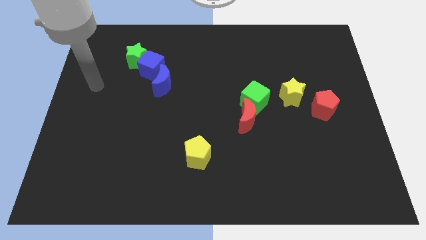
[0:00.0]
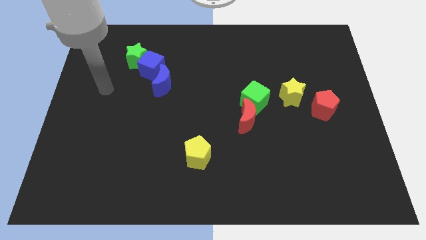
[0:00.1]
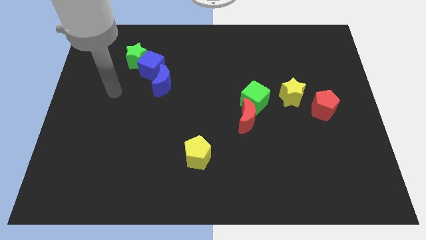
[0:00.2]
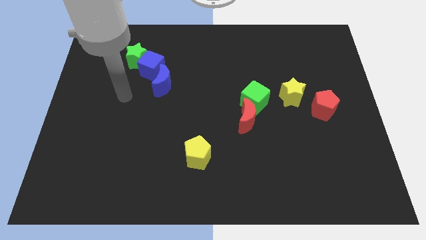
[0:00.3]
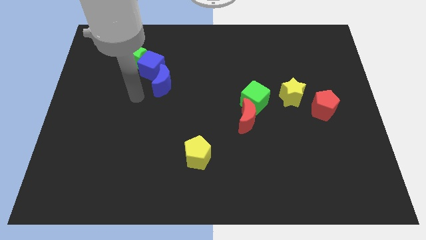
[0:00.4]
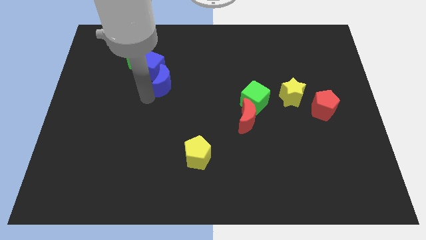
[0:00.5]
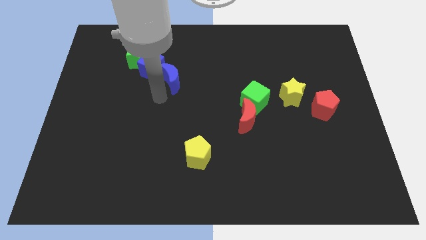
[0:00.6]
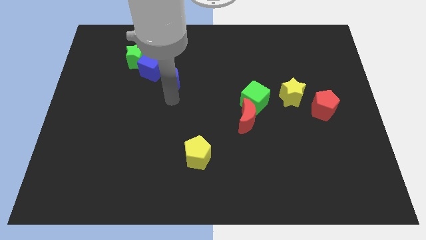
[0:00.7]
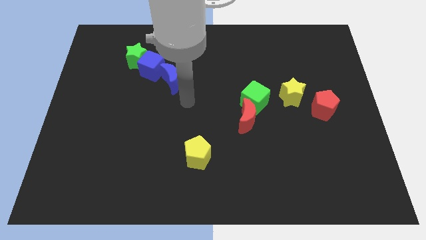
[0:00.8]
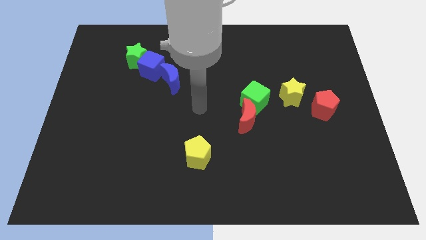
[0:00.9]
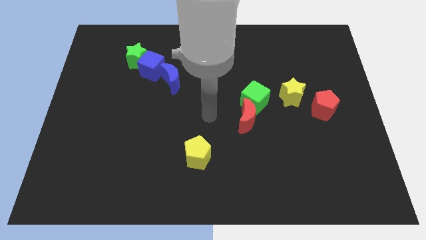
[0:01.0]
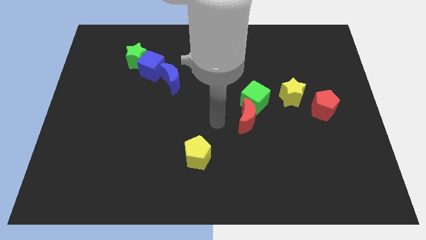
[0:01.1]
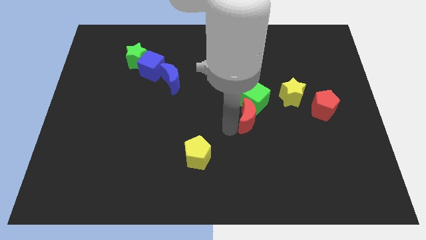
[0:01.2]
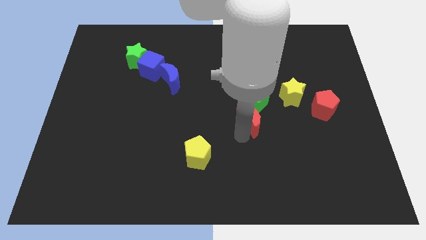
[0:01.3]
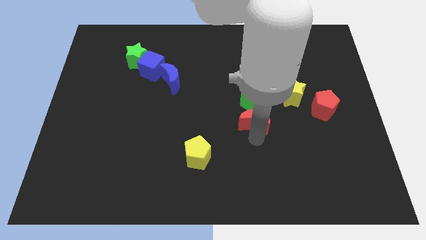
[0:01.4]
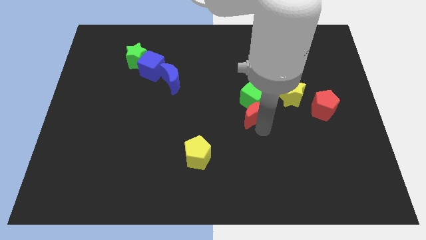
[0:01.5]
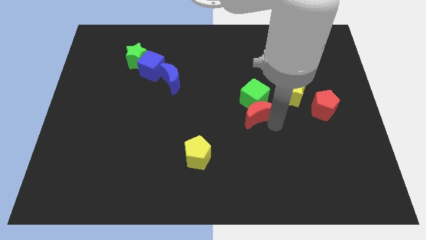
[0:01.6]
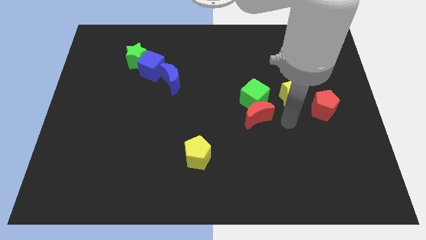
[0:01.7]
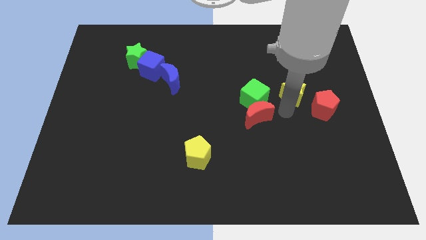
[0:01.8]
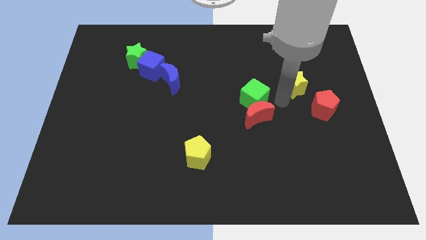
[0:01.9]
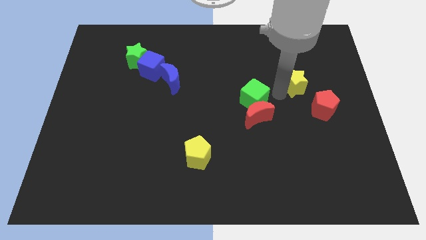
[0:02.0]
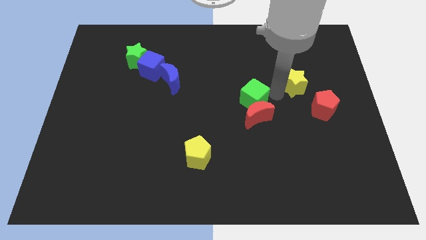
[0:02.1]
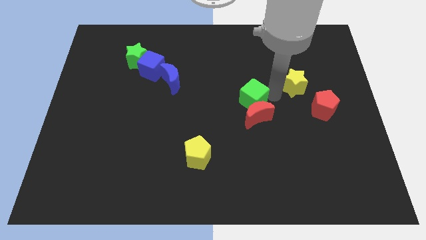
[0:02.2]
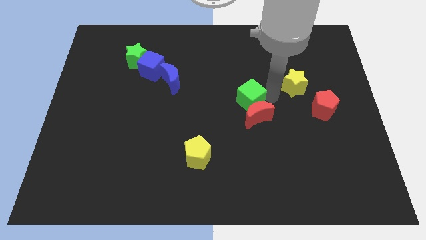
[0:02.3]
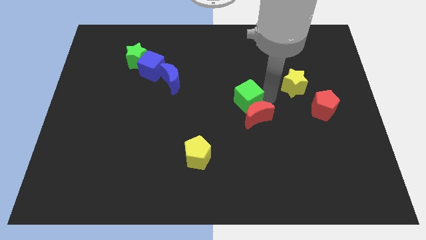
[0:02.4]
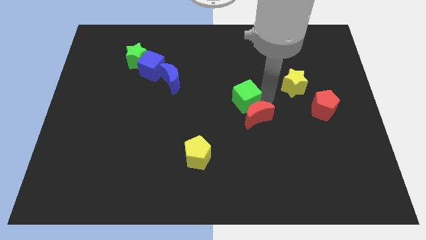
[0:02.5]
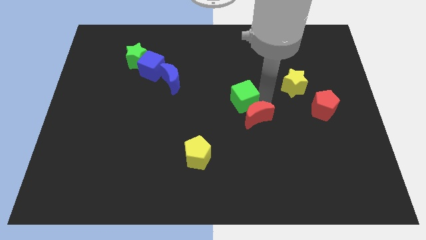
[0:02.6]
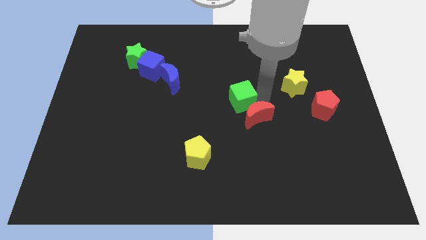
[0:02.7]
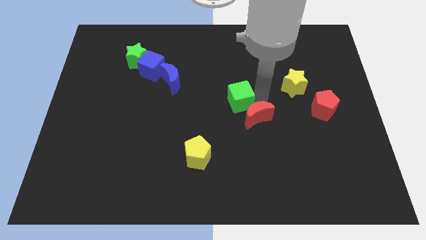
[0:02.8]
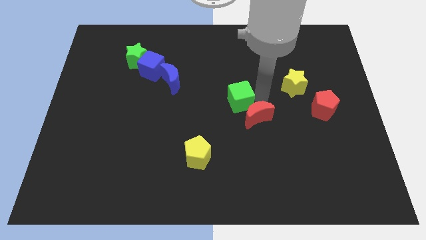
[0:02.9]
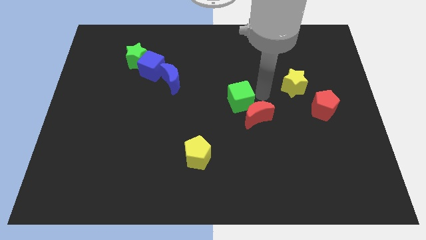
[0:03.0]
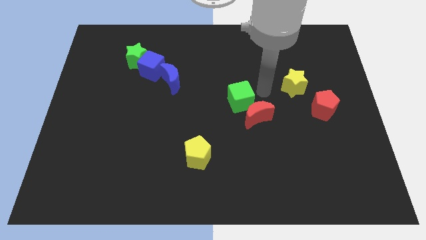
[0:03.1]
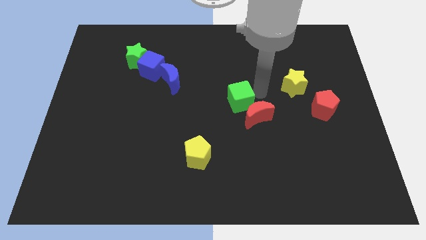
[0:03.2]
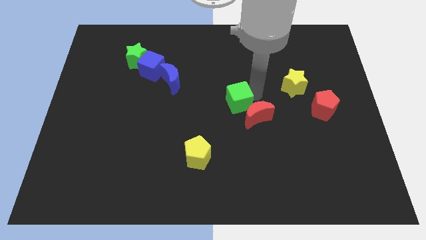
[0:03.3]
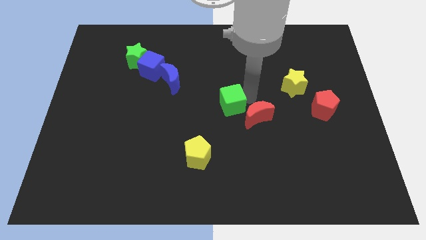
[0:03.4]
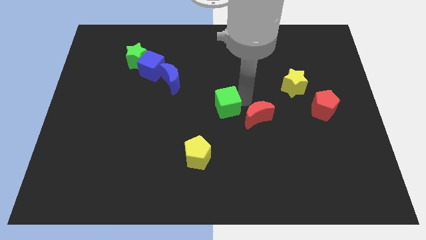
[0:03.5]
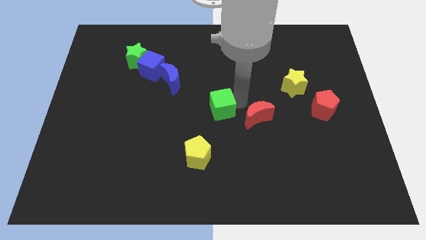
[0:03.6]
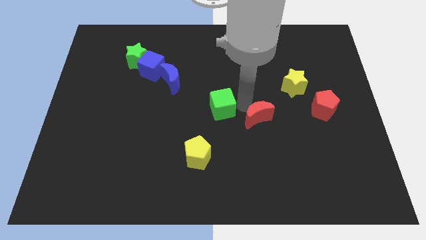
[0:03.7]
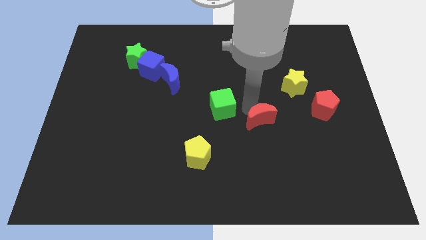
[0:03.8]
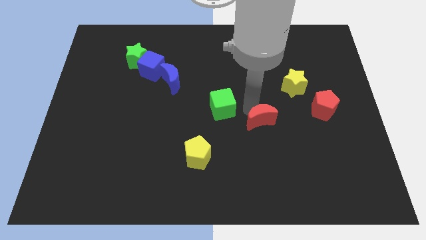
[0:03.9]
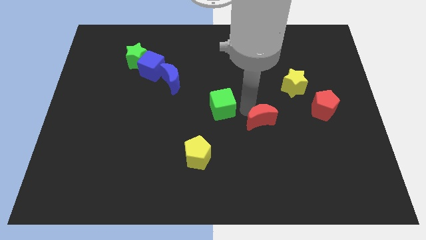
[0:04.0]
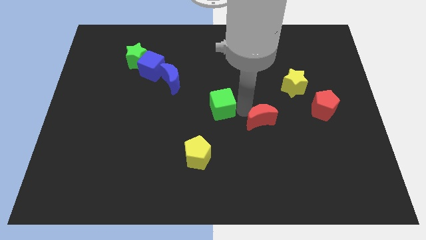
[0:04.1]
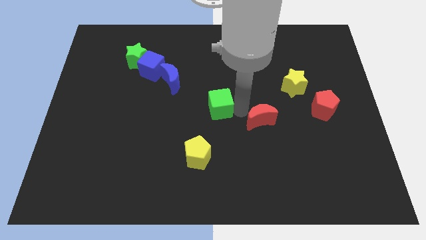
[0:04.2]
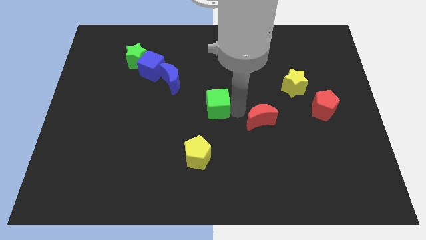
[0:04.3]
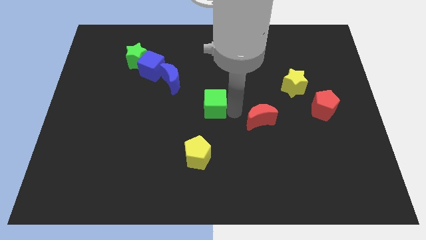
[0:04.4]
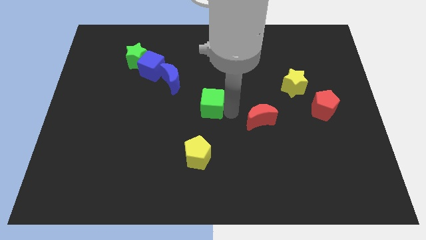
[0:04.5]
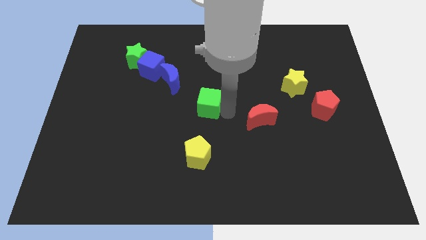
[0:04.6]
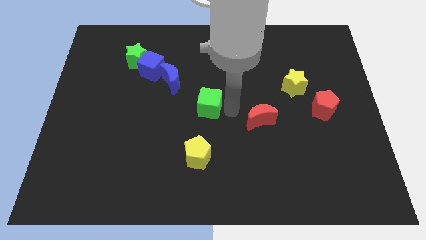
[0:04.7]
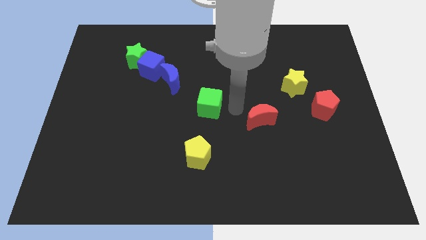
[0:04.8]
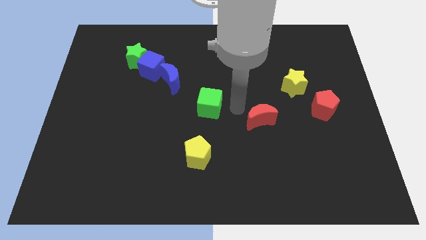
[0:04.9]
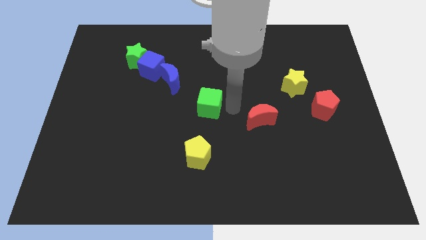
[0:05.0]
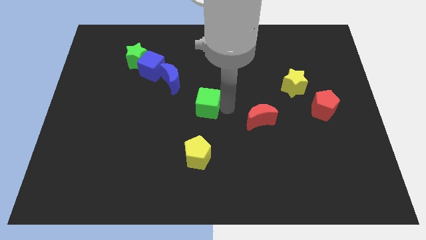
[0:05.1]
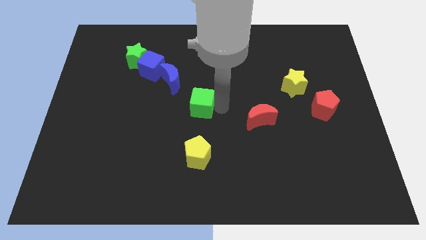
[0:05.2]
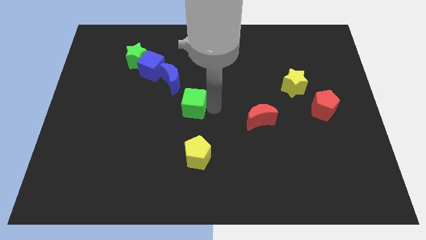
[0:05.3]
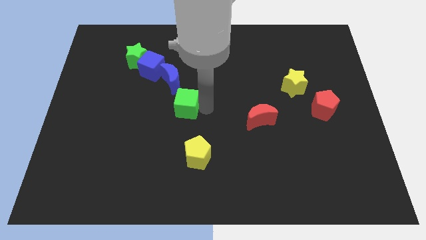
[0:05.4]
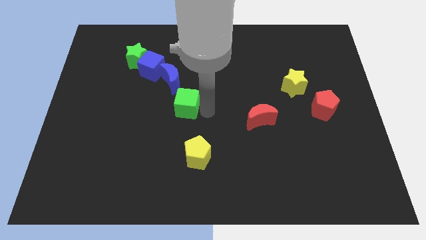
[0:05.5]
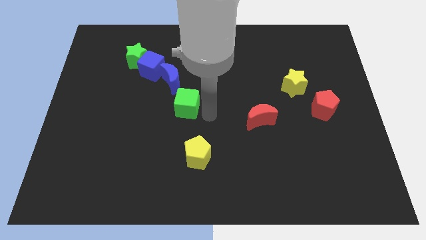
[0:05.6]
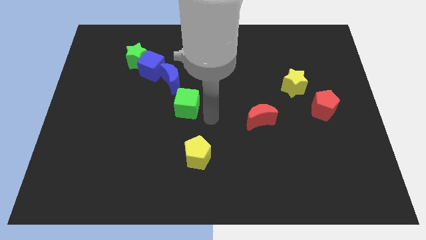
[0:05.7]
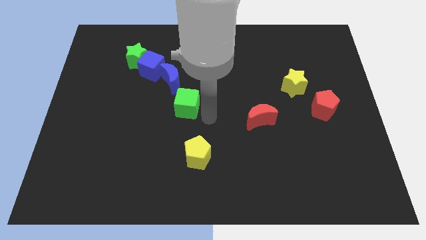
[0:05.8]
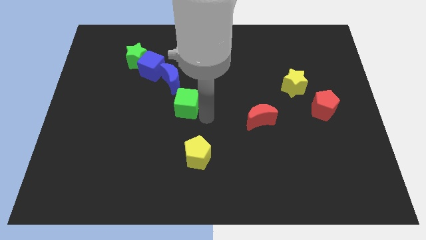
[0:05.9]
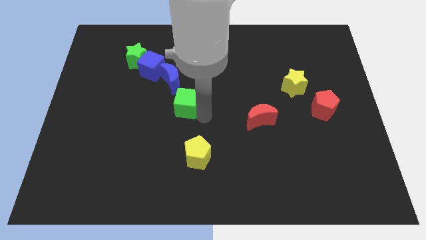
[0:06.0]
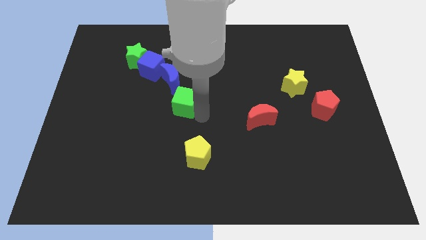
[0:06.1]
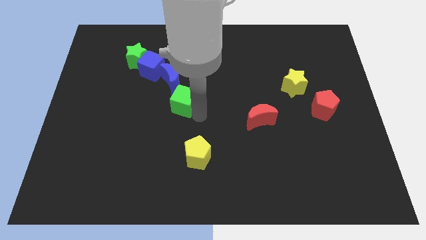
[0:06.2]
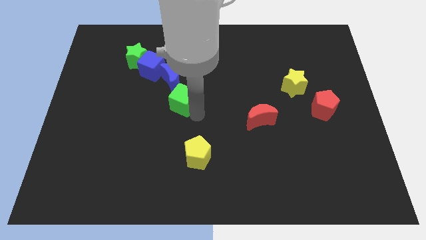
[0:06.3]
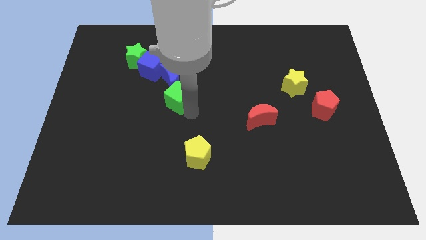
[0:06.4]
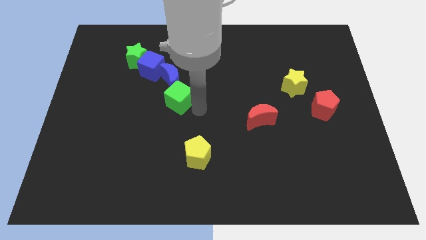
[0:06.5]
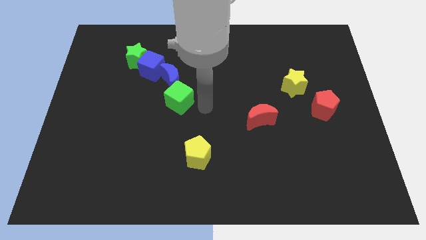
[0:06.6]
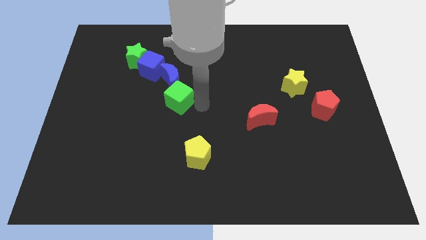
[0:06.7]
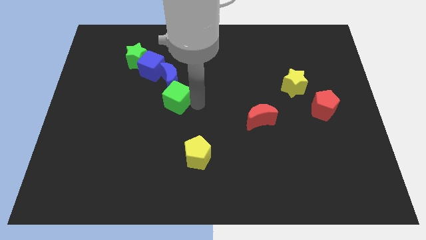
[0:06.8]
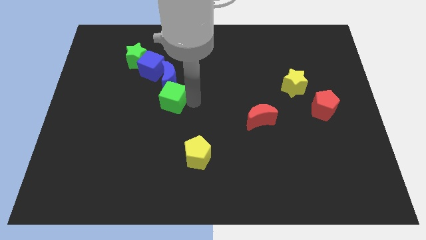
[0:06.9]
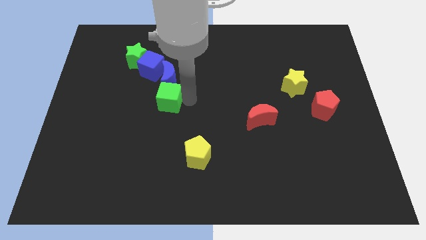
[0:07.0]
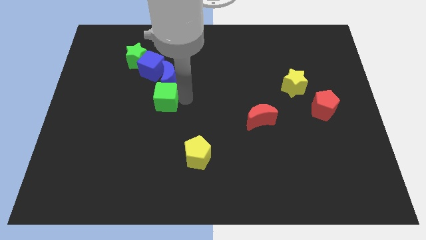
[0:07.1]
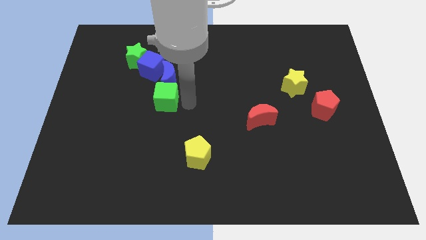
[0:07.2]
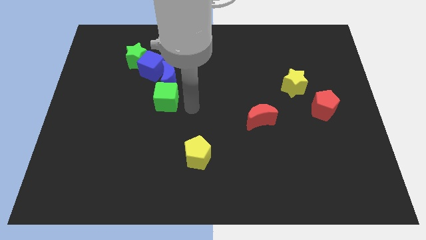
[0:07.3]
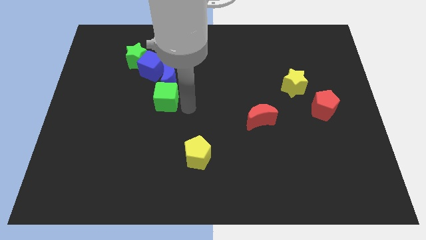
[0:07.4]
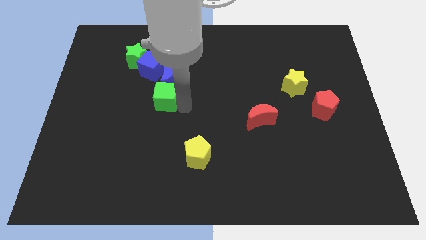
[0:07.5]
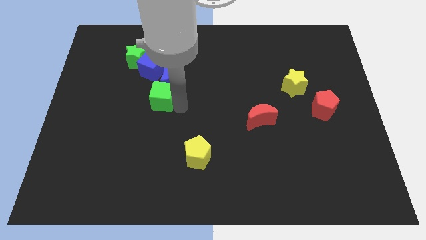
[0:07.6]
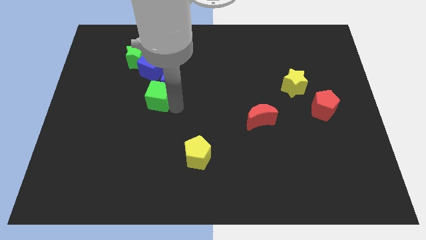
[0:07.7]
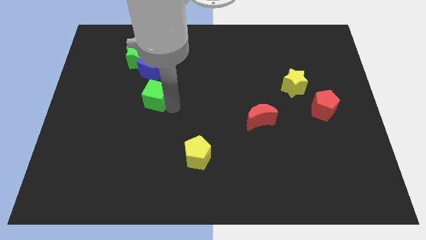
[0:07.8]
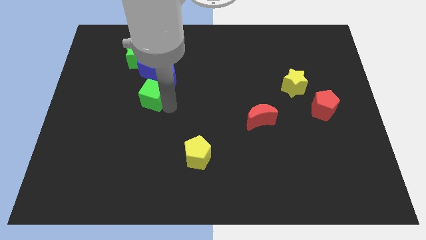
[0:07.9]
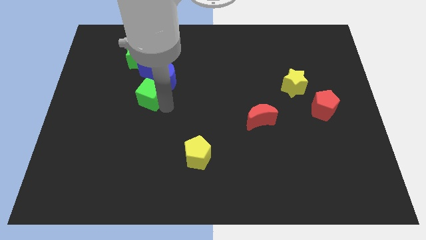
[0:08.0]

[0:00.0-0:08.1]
slide the green cube to the bottom of the green star
